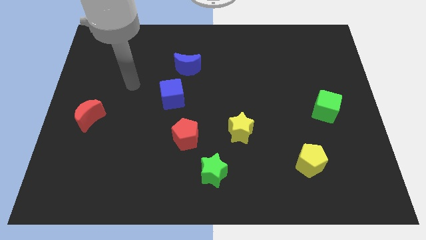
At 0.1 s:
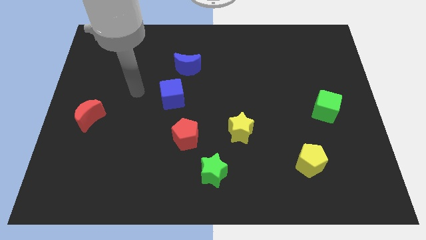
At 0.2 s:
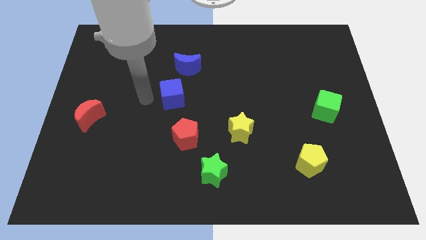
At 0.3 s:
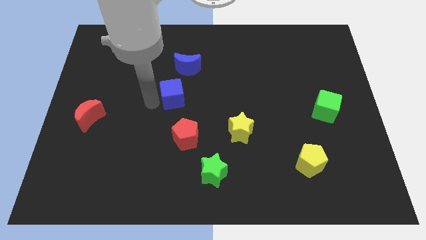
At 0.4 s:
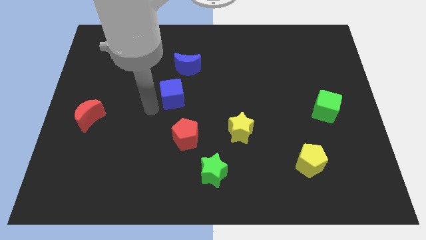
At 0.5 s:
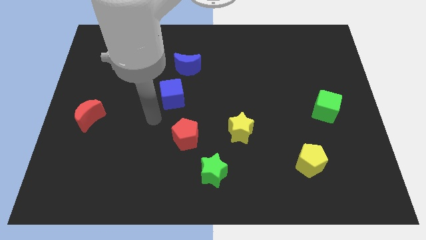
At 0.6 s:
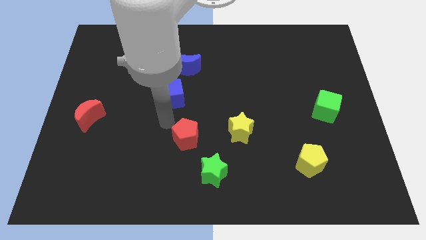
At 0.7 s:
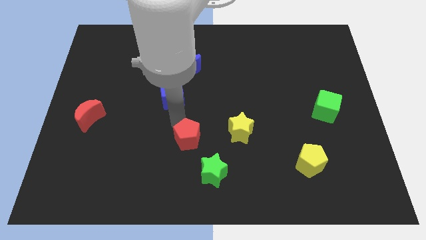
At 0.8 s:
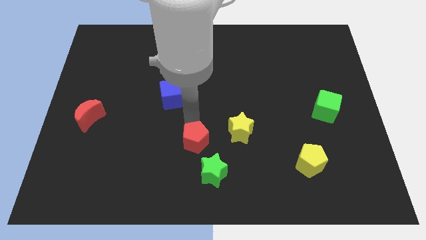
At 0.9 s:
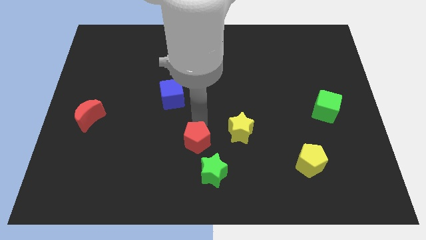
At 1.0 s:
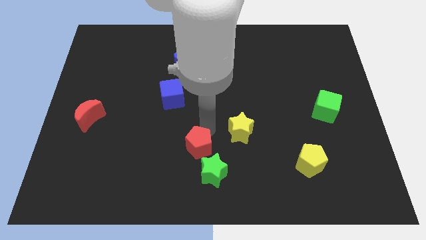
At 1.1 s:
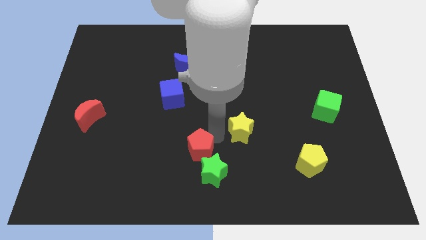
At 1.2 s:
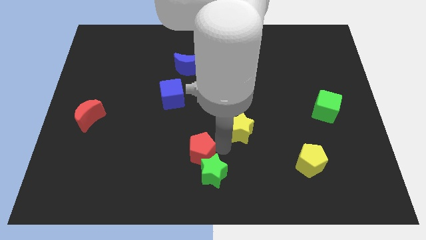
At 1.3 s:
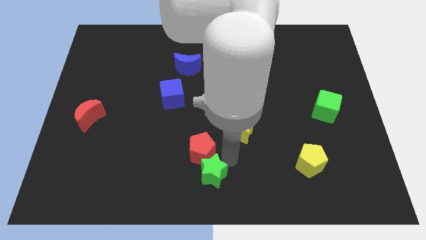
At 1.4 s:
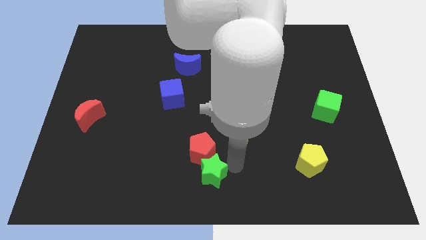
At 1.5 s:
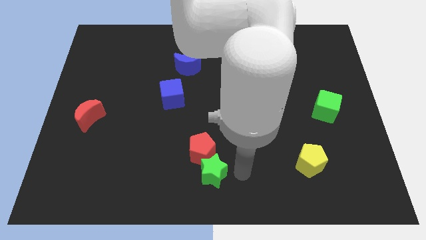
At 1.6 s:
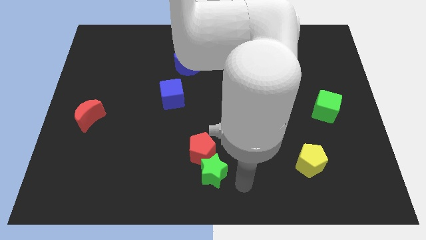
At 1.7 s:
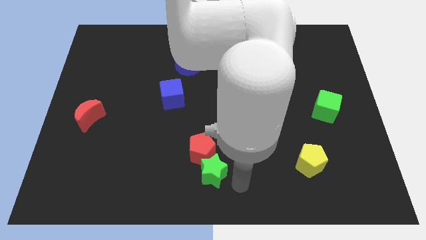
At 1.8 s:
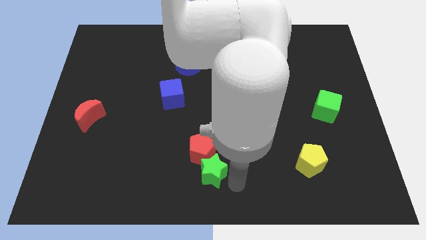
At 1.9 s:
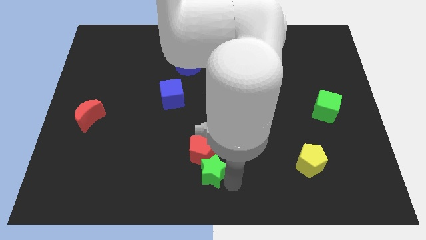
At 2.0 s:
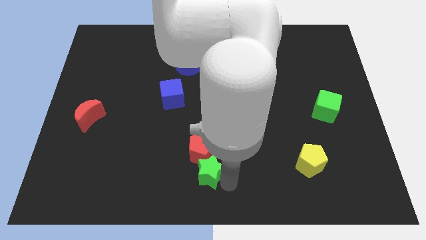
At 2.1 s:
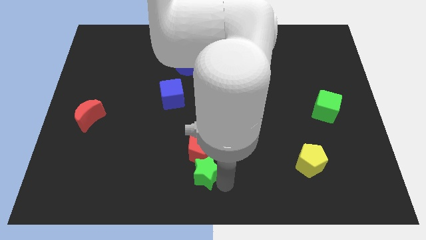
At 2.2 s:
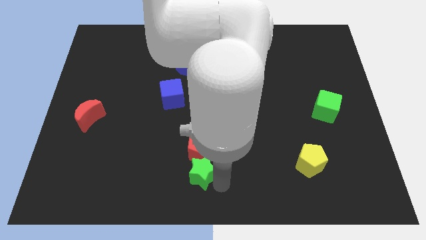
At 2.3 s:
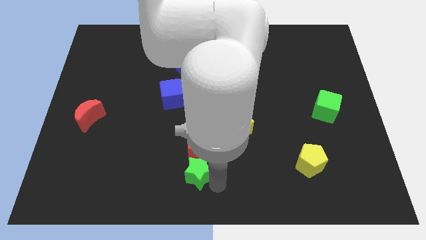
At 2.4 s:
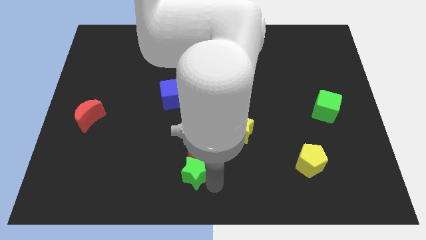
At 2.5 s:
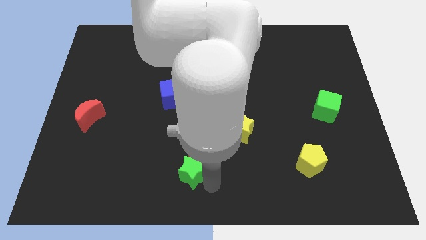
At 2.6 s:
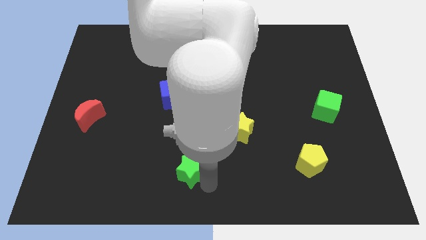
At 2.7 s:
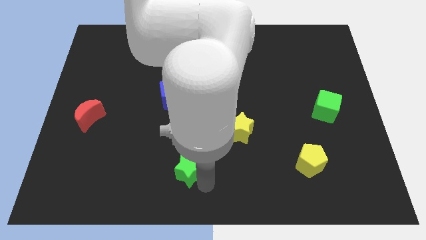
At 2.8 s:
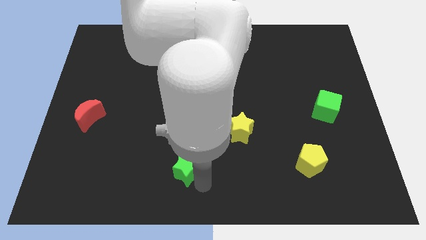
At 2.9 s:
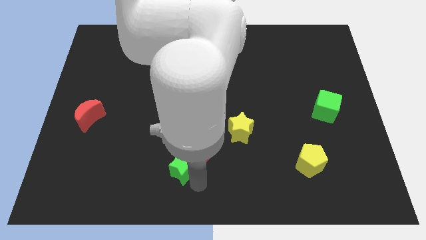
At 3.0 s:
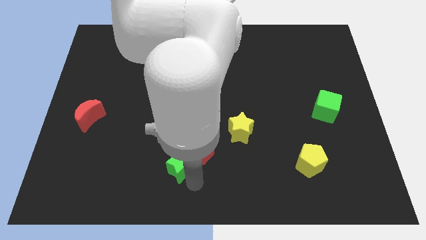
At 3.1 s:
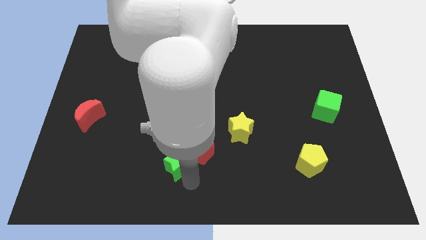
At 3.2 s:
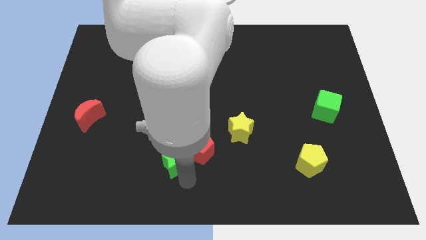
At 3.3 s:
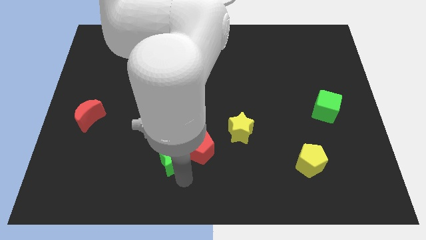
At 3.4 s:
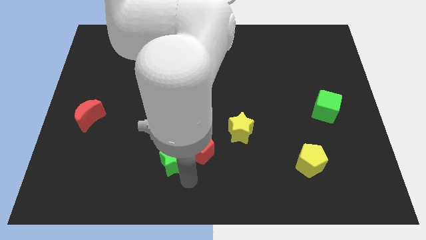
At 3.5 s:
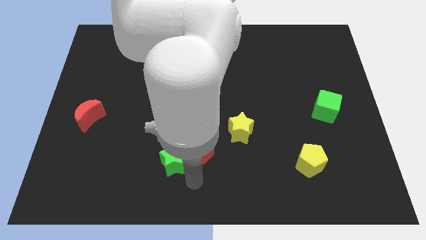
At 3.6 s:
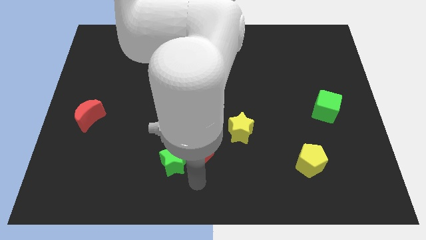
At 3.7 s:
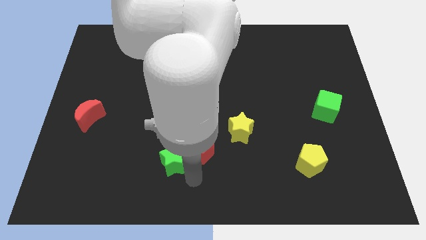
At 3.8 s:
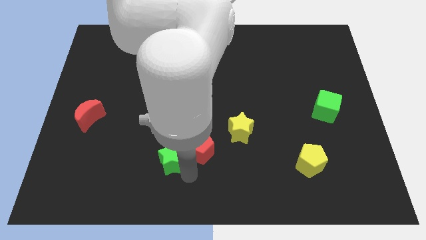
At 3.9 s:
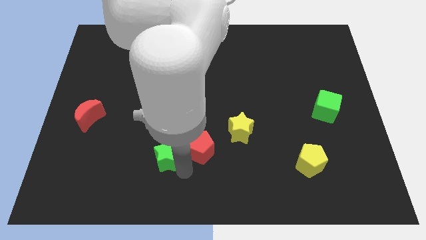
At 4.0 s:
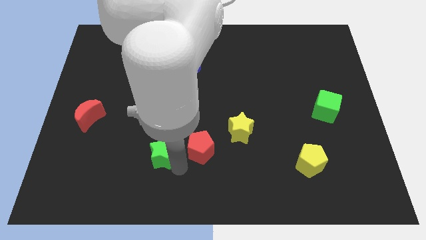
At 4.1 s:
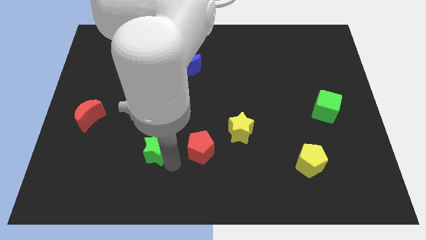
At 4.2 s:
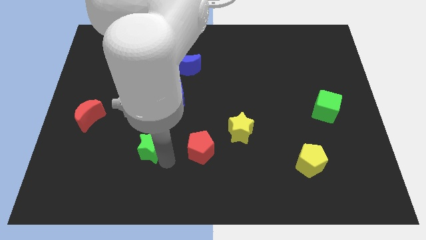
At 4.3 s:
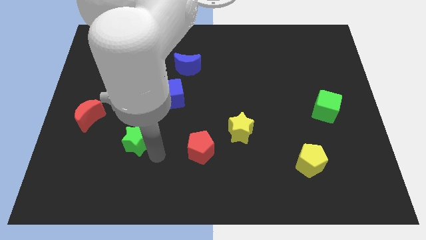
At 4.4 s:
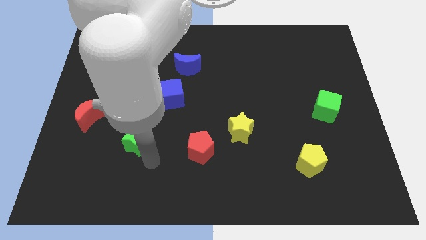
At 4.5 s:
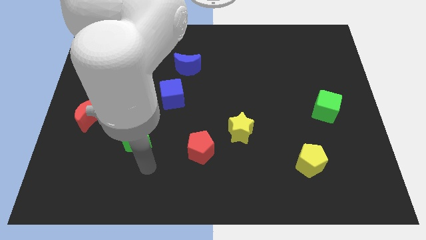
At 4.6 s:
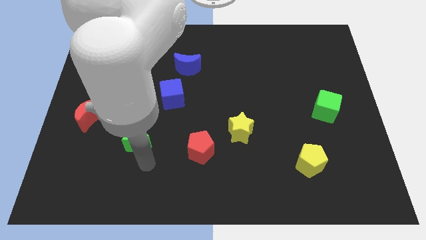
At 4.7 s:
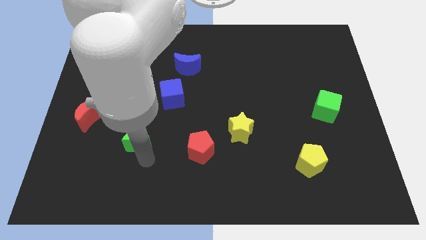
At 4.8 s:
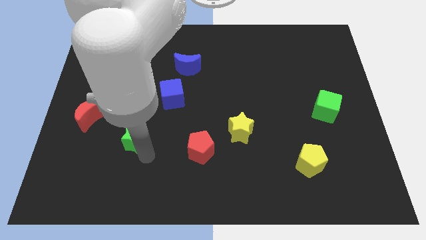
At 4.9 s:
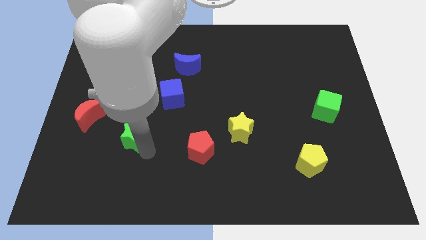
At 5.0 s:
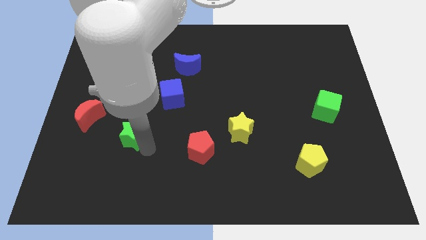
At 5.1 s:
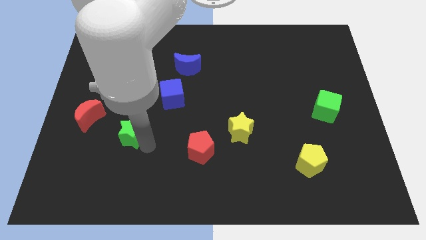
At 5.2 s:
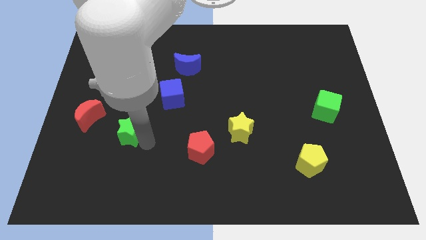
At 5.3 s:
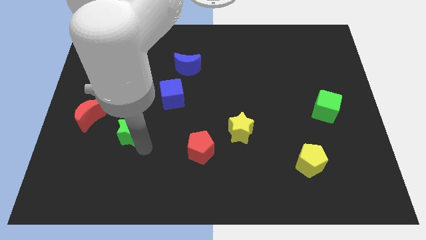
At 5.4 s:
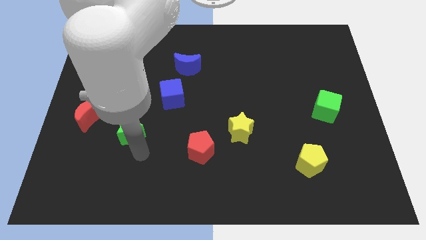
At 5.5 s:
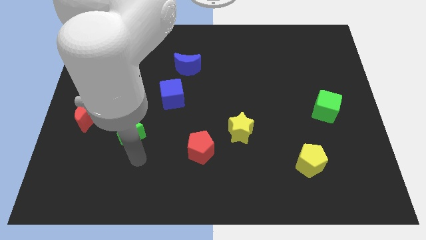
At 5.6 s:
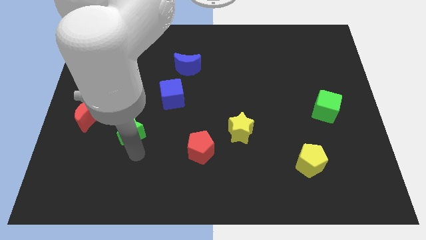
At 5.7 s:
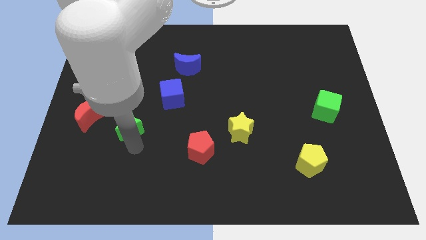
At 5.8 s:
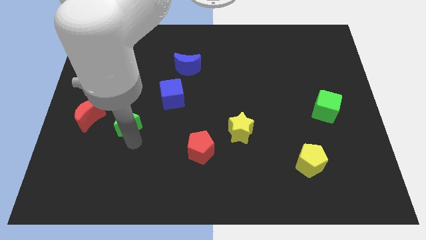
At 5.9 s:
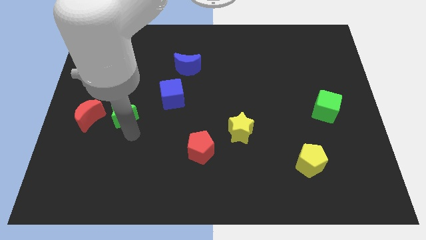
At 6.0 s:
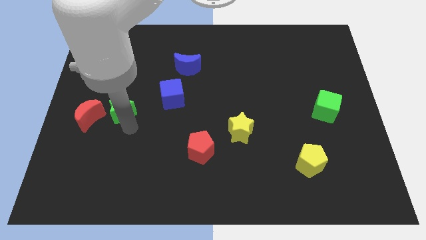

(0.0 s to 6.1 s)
push the green star to the top right of the red moon

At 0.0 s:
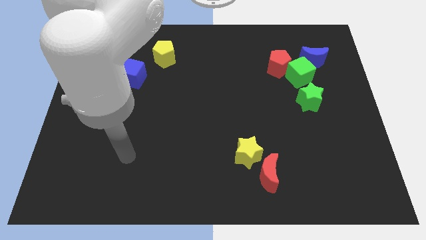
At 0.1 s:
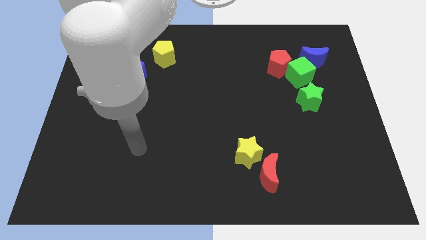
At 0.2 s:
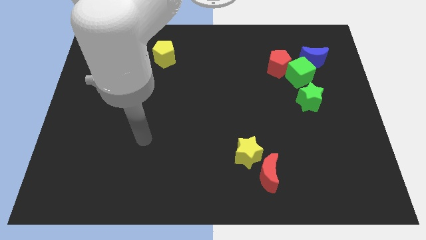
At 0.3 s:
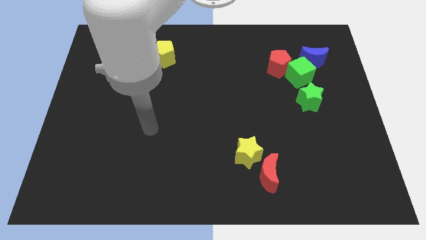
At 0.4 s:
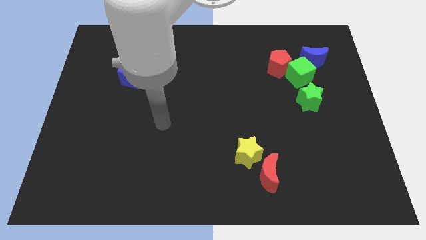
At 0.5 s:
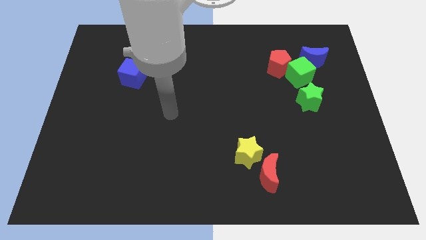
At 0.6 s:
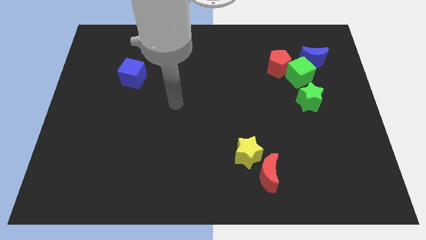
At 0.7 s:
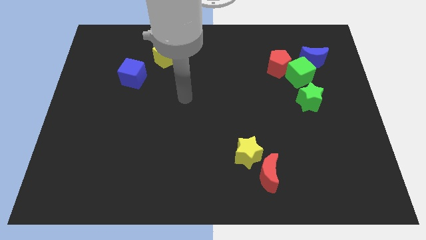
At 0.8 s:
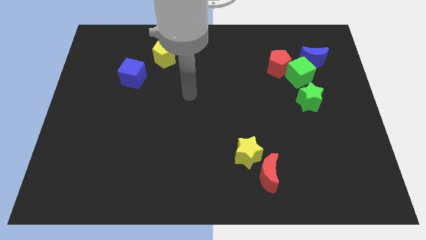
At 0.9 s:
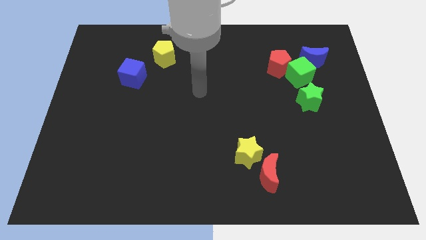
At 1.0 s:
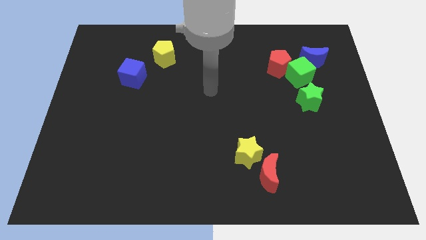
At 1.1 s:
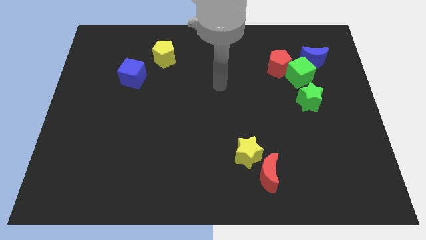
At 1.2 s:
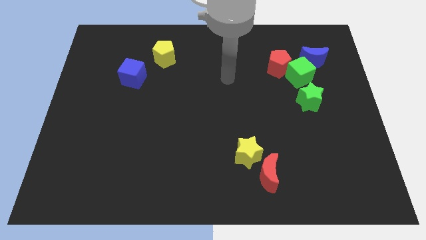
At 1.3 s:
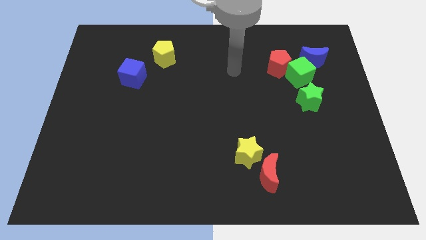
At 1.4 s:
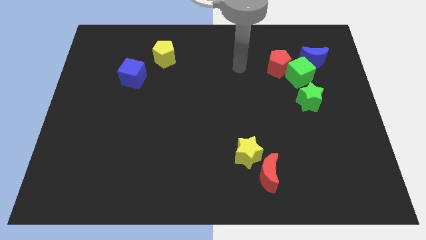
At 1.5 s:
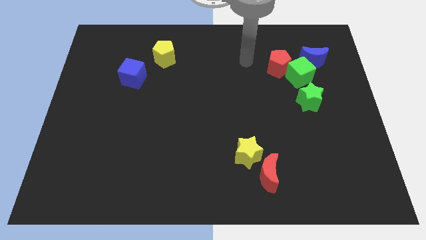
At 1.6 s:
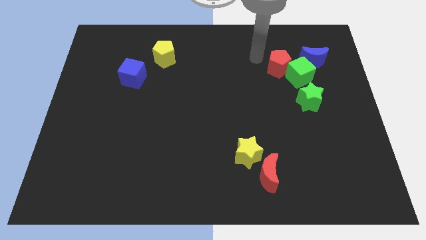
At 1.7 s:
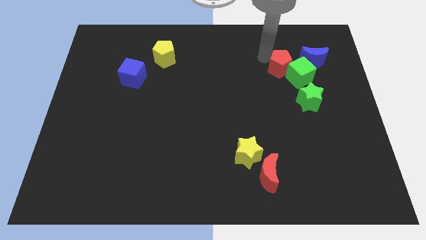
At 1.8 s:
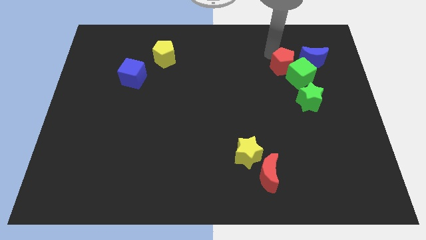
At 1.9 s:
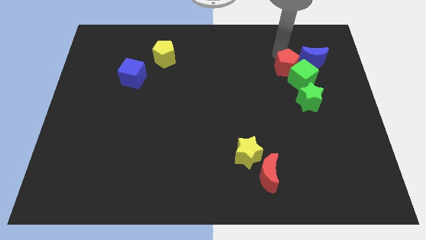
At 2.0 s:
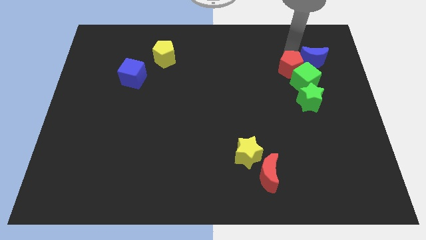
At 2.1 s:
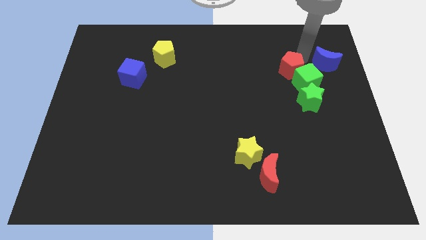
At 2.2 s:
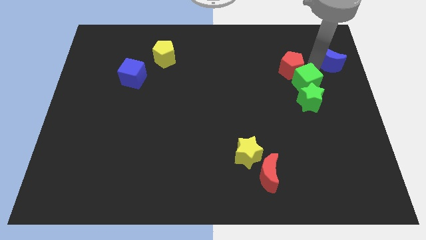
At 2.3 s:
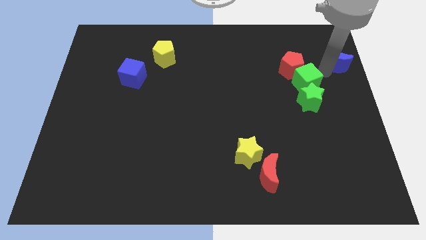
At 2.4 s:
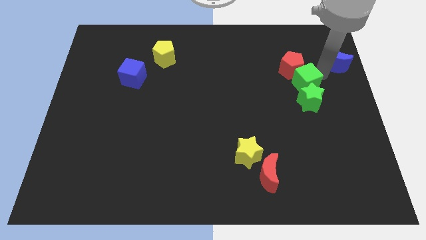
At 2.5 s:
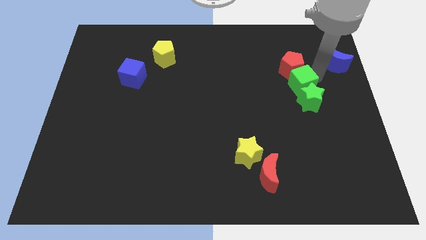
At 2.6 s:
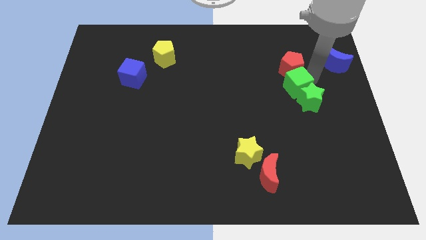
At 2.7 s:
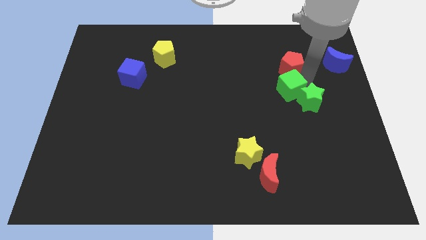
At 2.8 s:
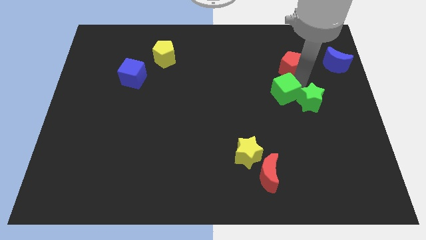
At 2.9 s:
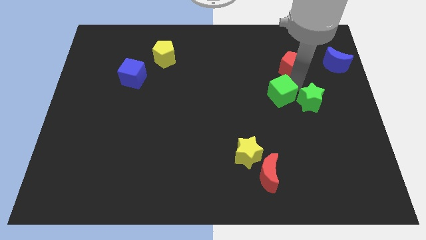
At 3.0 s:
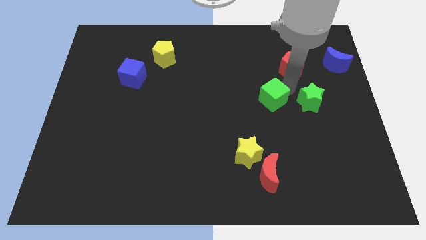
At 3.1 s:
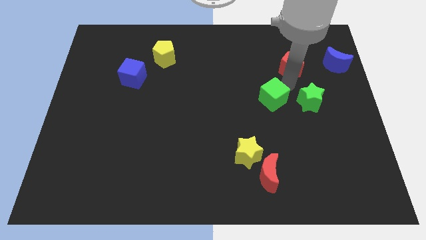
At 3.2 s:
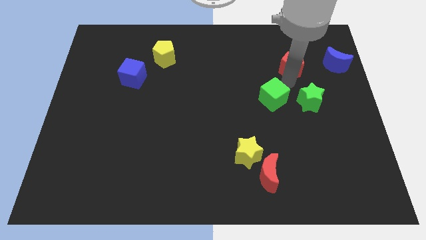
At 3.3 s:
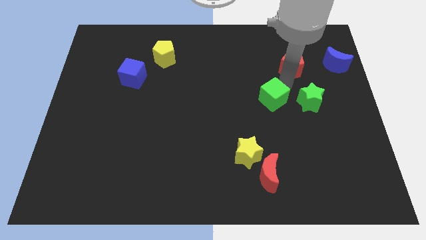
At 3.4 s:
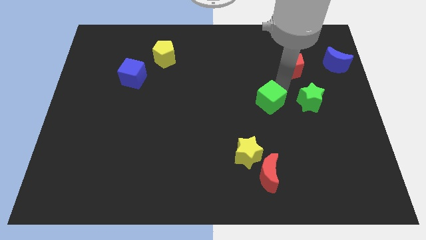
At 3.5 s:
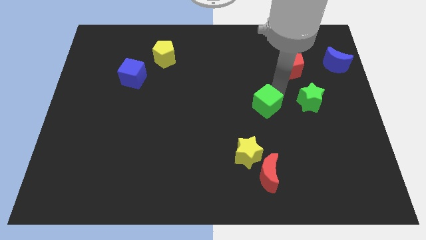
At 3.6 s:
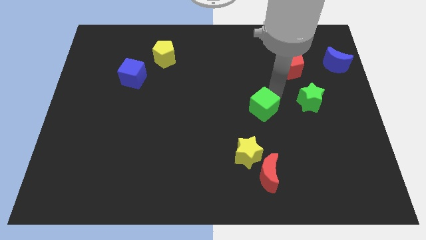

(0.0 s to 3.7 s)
push the green cube to the top side of the yellow star
